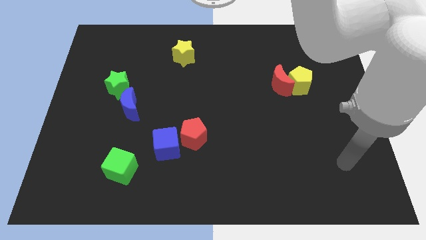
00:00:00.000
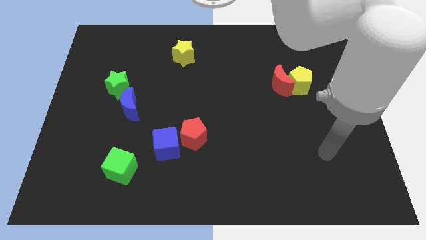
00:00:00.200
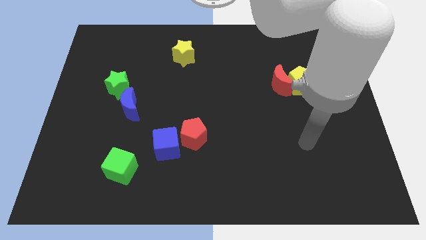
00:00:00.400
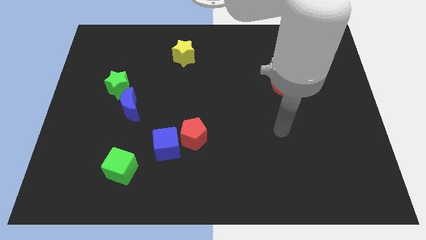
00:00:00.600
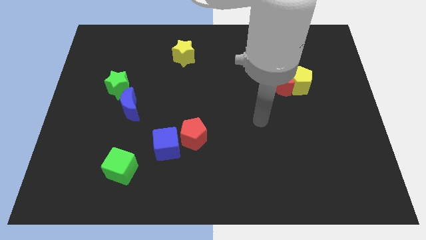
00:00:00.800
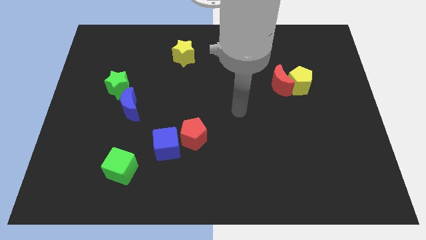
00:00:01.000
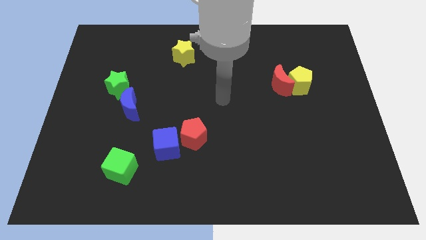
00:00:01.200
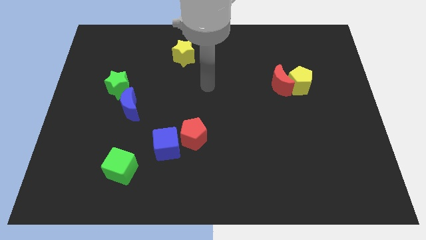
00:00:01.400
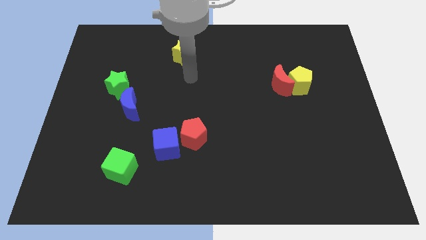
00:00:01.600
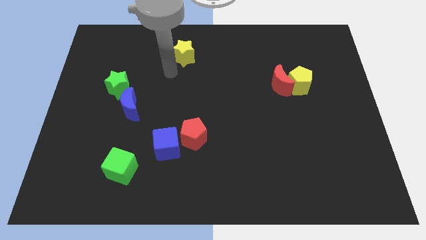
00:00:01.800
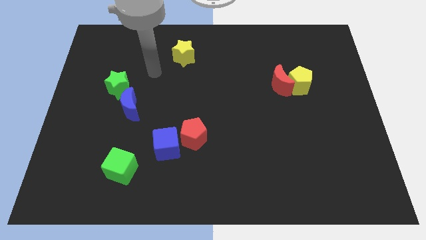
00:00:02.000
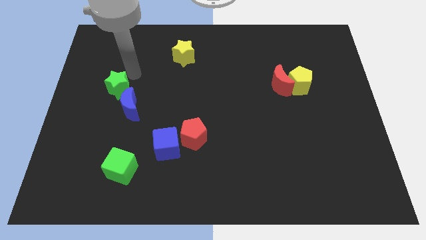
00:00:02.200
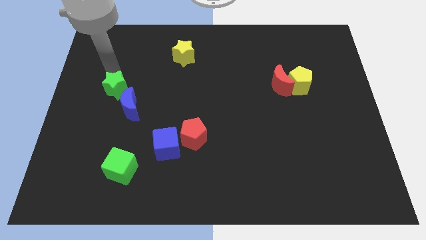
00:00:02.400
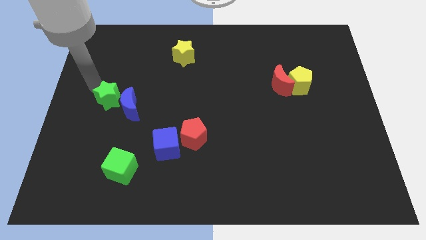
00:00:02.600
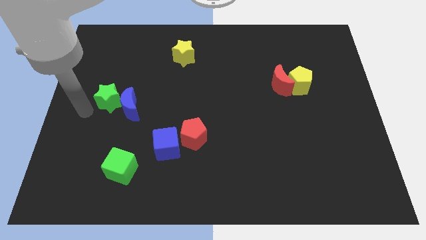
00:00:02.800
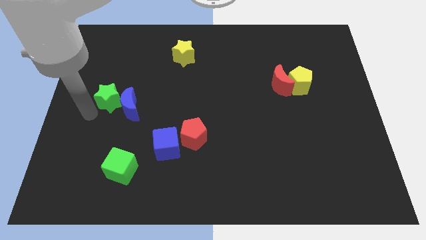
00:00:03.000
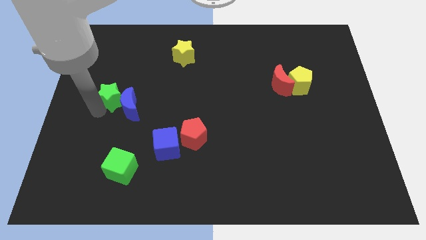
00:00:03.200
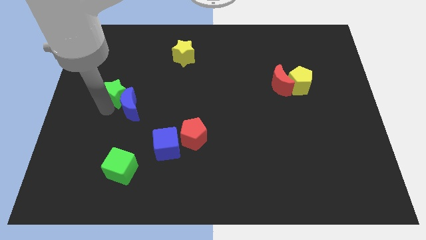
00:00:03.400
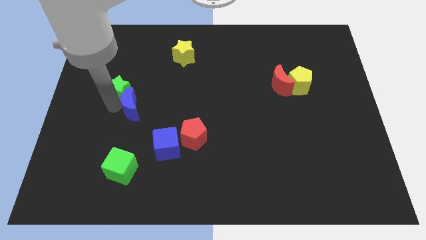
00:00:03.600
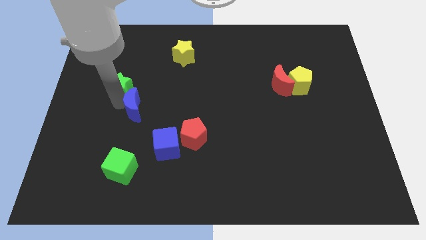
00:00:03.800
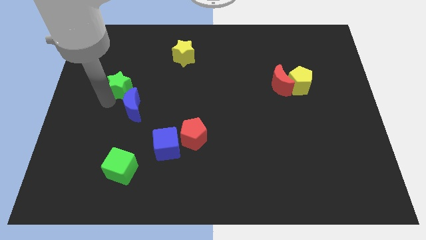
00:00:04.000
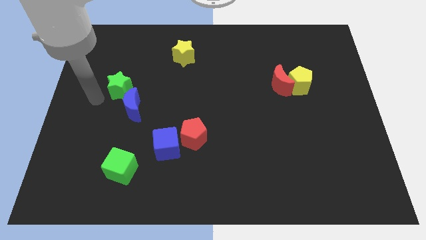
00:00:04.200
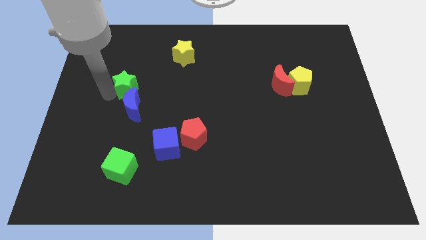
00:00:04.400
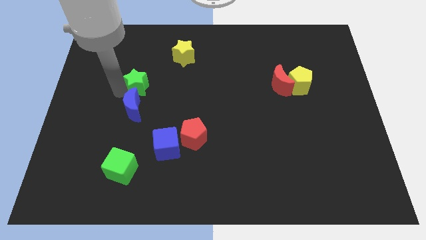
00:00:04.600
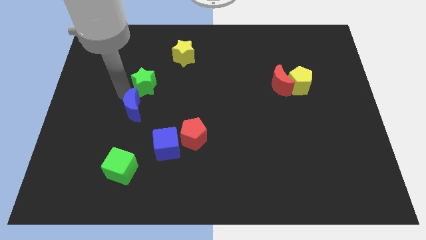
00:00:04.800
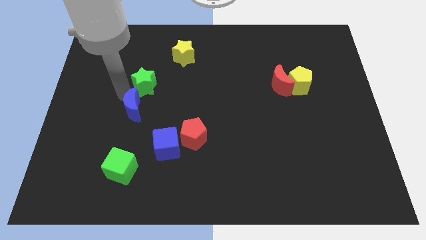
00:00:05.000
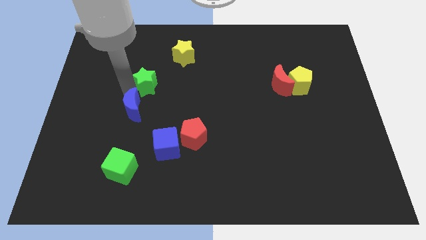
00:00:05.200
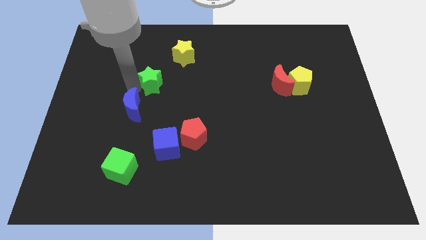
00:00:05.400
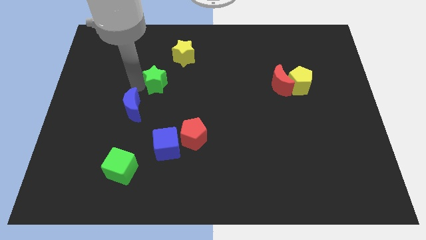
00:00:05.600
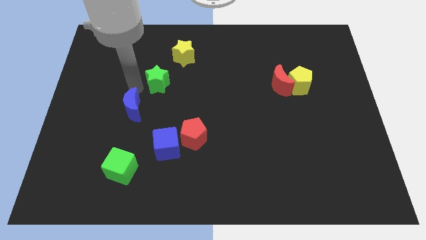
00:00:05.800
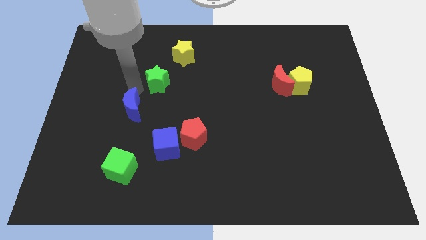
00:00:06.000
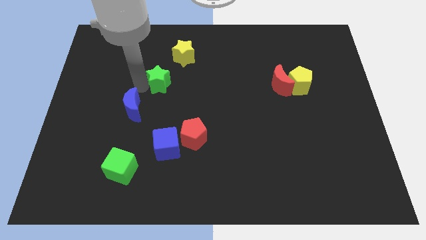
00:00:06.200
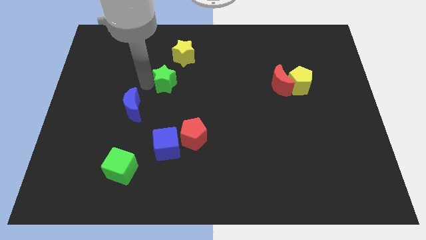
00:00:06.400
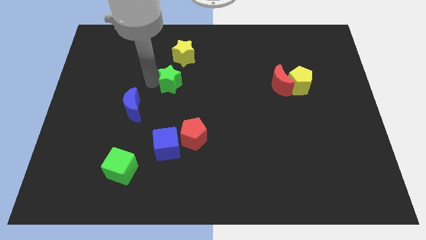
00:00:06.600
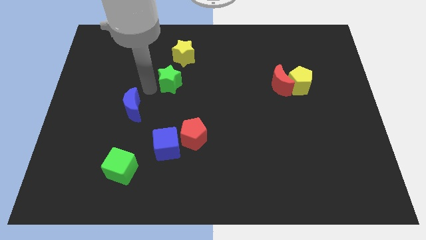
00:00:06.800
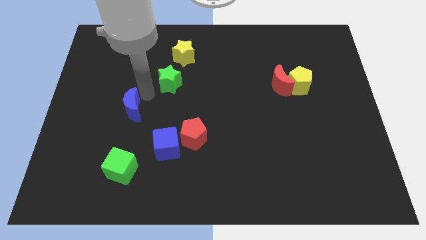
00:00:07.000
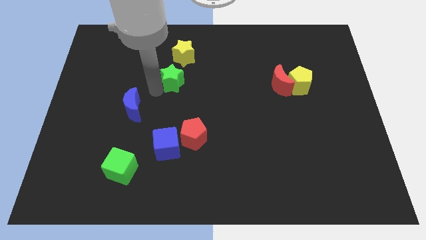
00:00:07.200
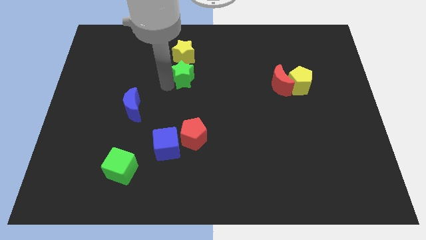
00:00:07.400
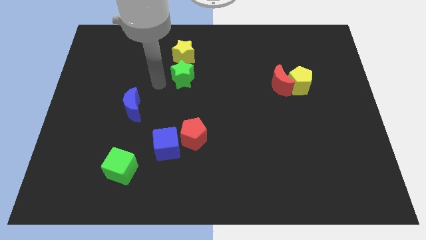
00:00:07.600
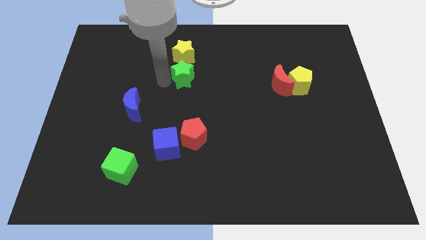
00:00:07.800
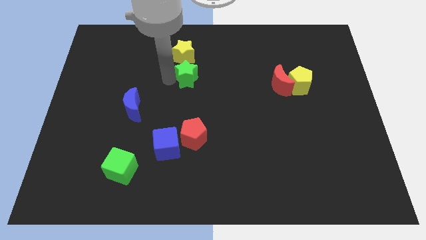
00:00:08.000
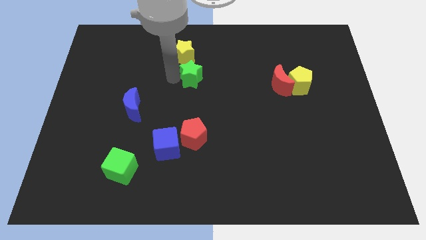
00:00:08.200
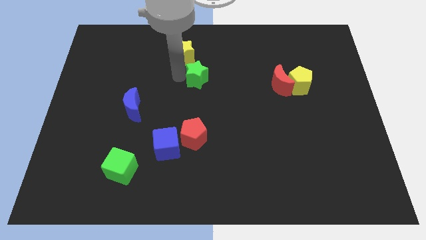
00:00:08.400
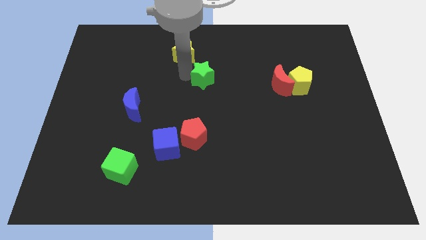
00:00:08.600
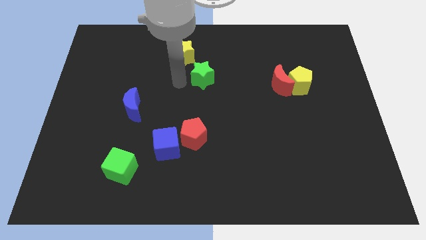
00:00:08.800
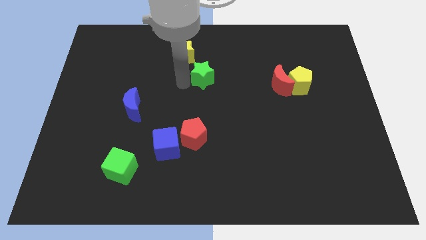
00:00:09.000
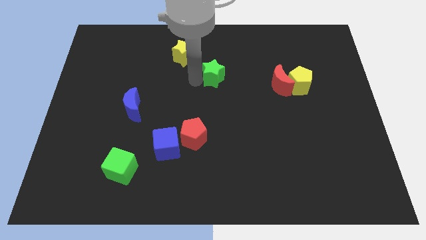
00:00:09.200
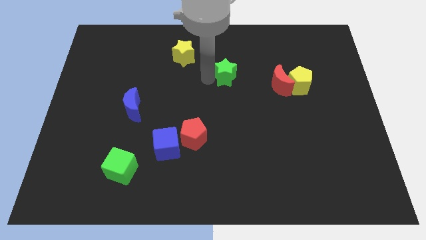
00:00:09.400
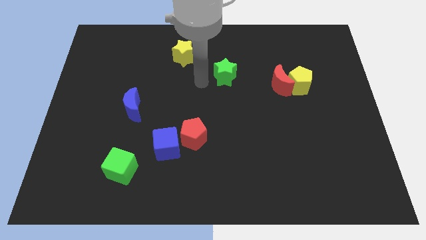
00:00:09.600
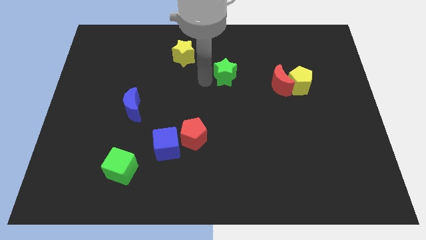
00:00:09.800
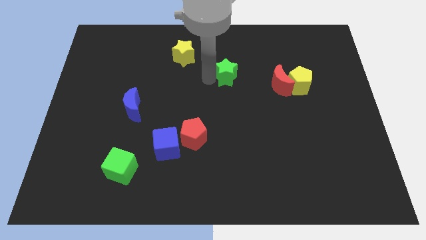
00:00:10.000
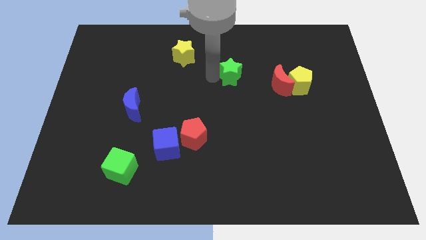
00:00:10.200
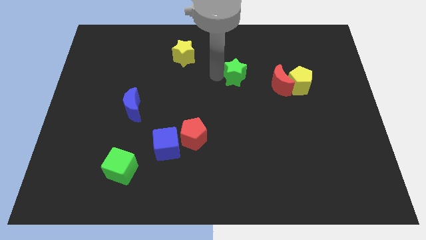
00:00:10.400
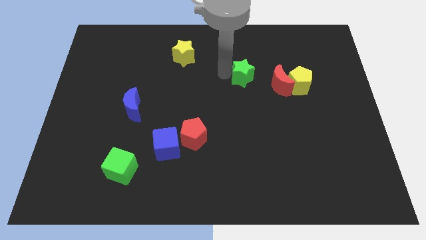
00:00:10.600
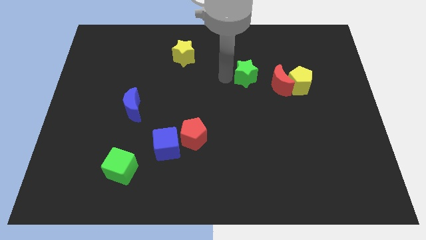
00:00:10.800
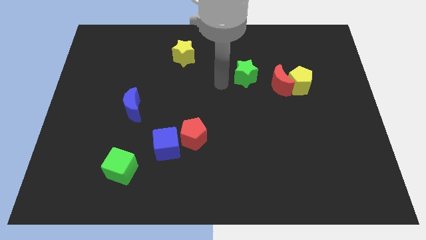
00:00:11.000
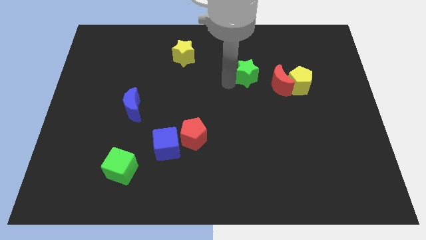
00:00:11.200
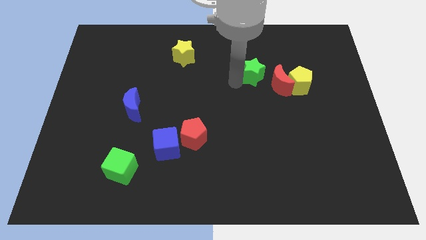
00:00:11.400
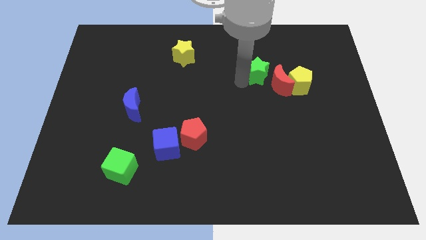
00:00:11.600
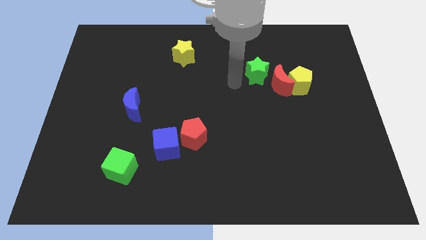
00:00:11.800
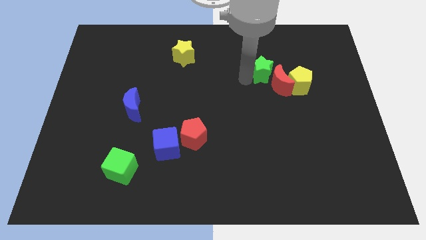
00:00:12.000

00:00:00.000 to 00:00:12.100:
put the green star to the top left side of the yellow pentagon

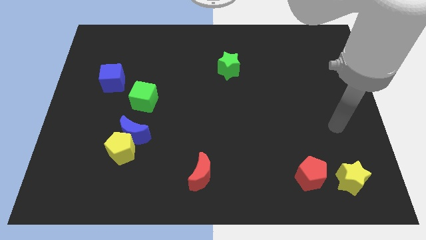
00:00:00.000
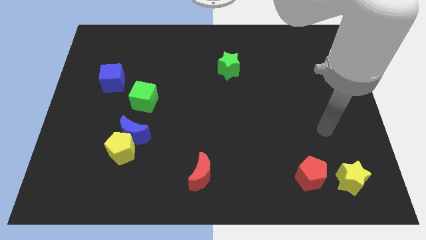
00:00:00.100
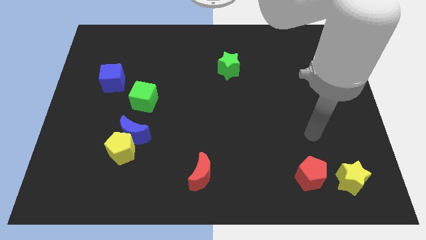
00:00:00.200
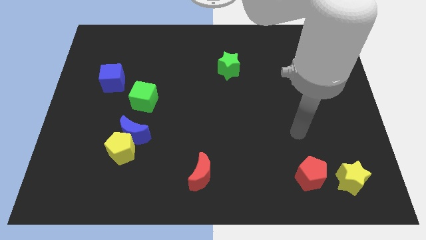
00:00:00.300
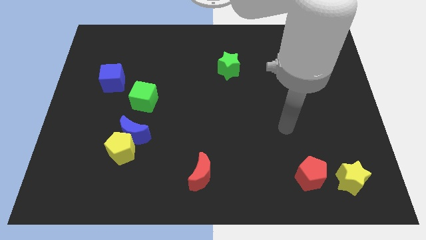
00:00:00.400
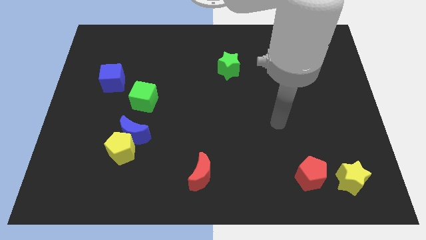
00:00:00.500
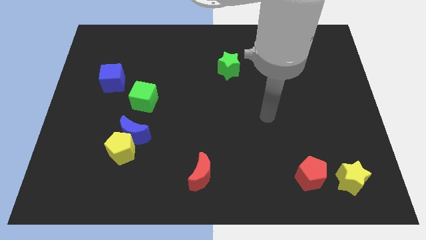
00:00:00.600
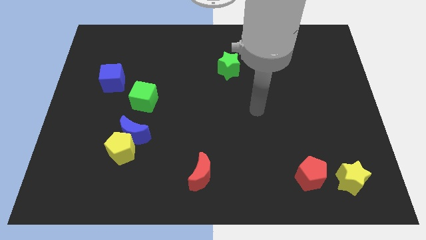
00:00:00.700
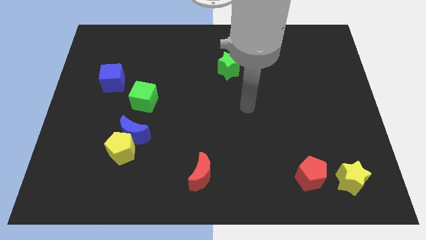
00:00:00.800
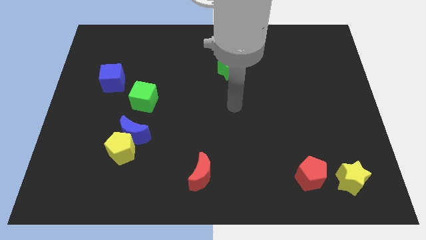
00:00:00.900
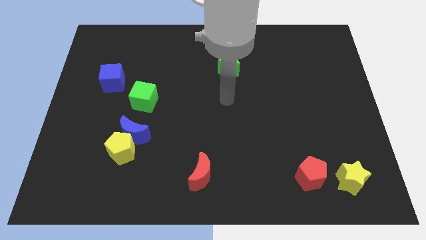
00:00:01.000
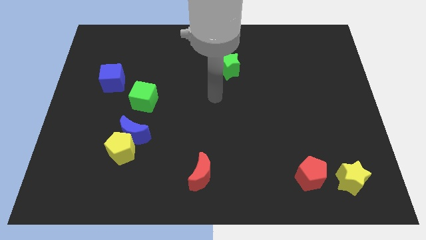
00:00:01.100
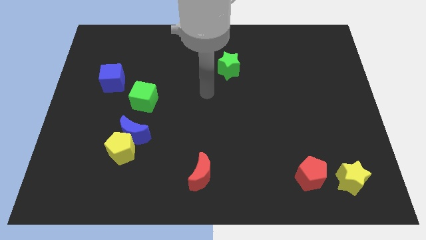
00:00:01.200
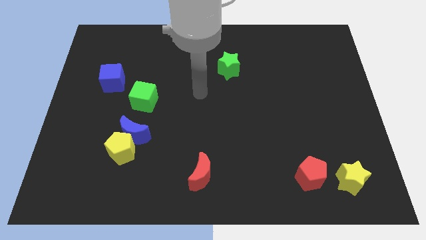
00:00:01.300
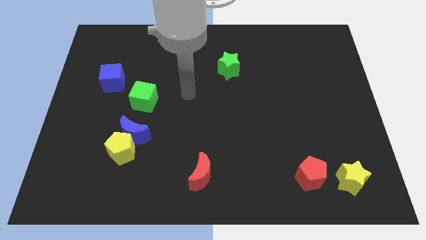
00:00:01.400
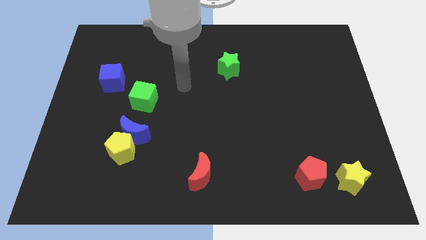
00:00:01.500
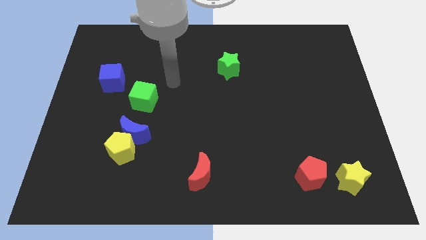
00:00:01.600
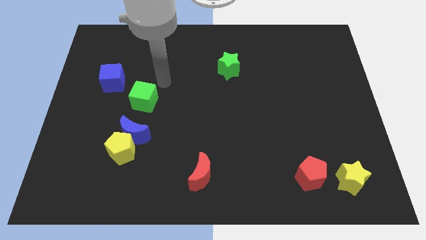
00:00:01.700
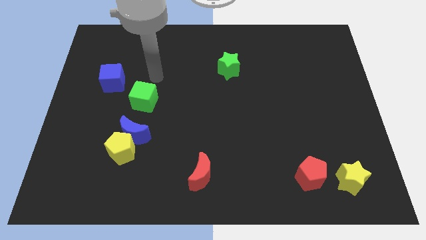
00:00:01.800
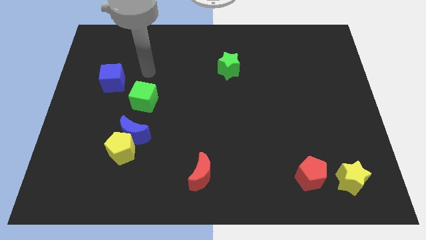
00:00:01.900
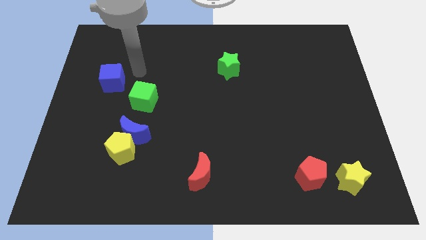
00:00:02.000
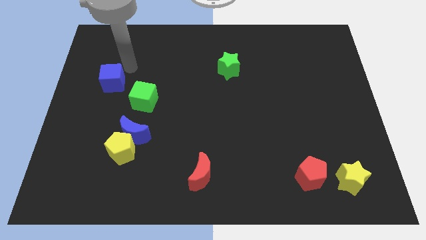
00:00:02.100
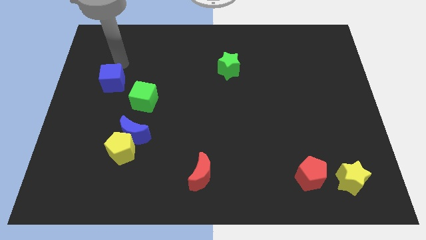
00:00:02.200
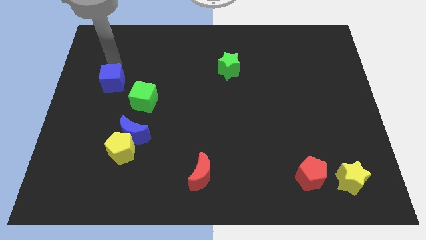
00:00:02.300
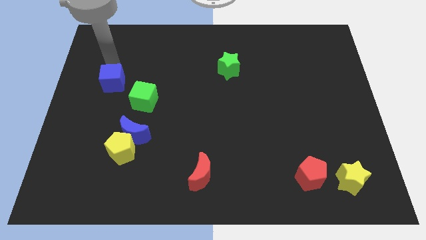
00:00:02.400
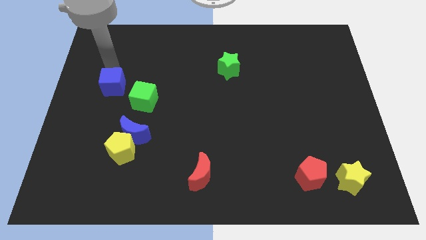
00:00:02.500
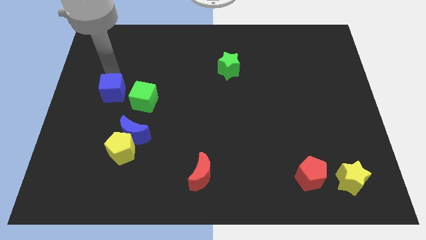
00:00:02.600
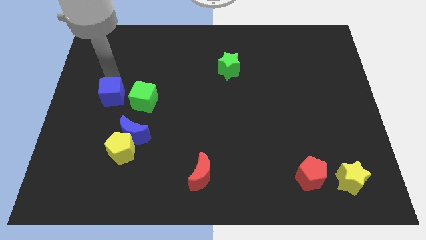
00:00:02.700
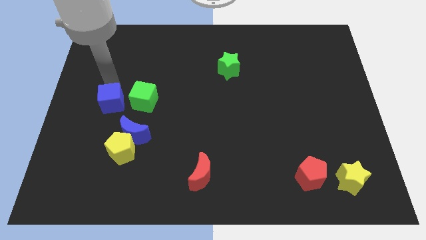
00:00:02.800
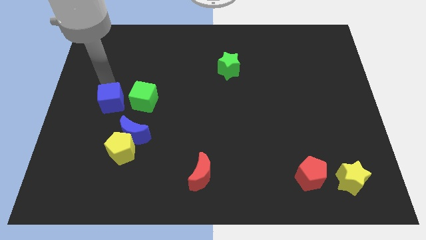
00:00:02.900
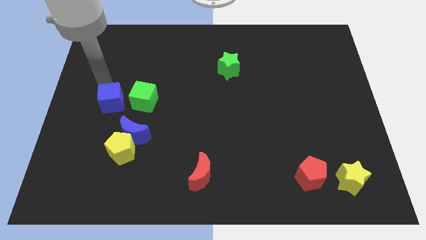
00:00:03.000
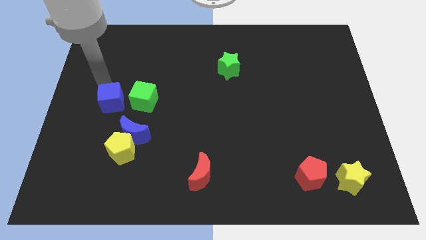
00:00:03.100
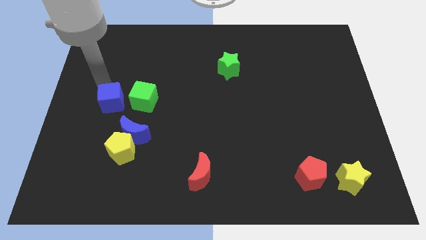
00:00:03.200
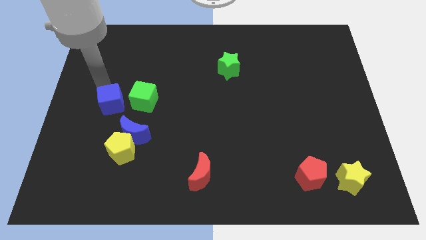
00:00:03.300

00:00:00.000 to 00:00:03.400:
push the blue cube diagonally down and to the left of the green cube
